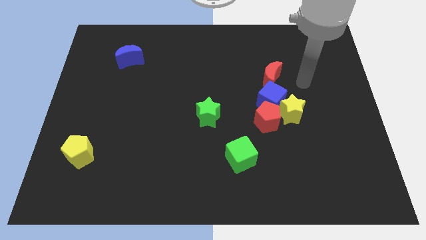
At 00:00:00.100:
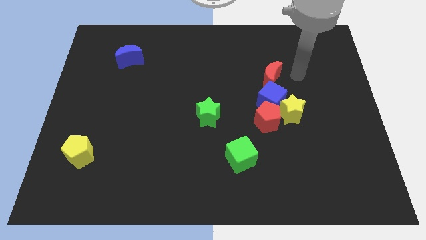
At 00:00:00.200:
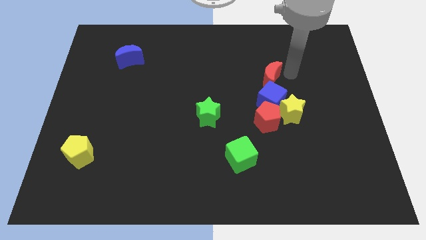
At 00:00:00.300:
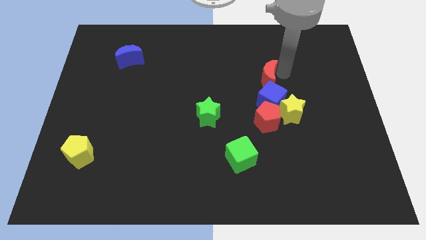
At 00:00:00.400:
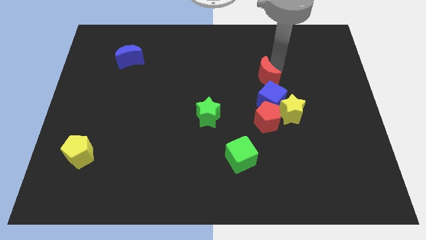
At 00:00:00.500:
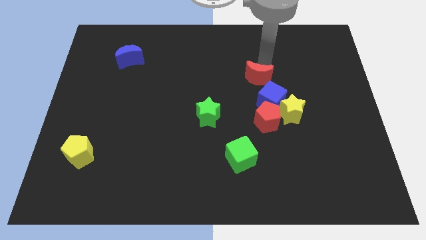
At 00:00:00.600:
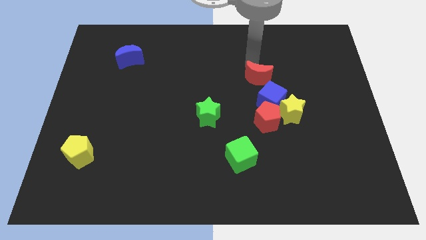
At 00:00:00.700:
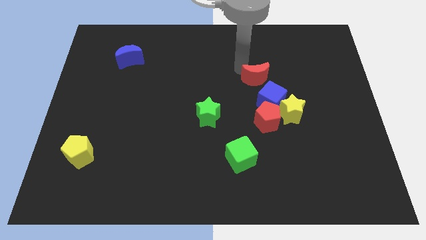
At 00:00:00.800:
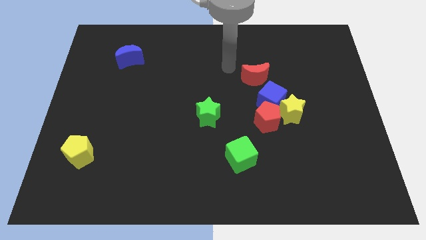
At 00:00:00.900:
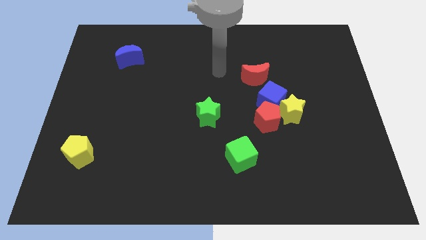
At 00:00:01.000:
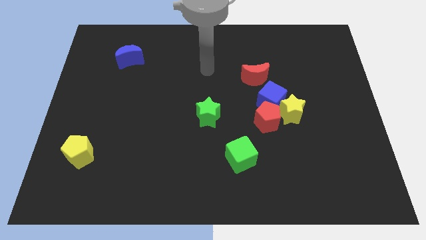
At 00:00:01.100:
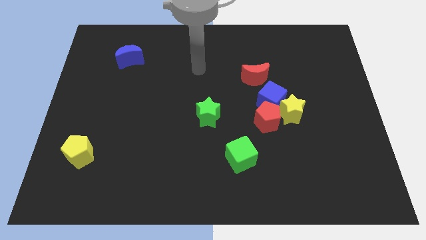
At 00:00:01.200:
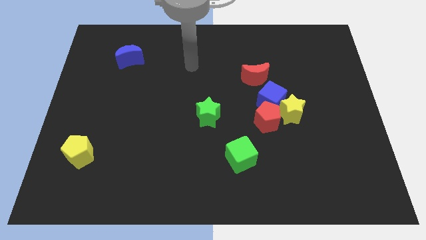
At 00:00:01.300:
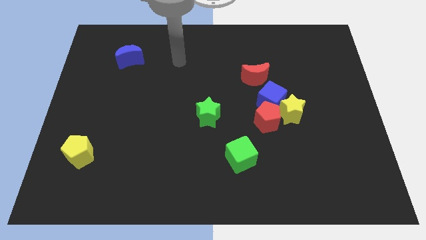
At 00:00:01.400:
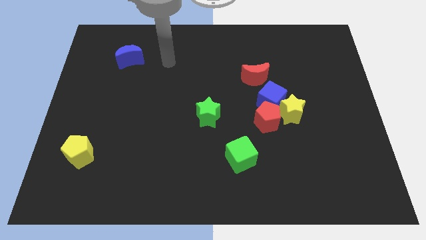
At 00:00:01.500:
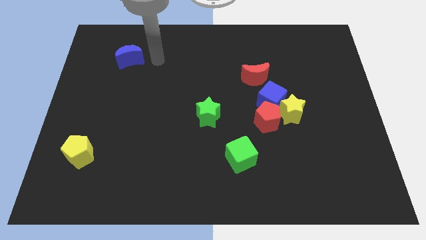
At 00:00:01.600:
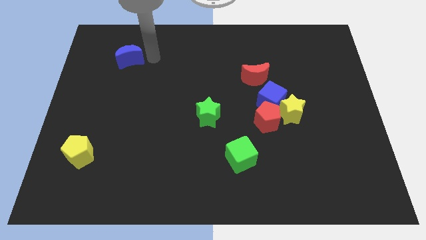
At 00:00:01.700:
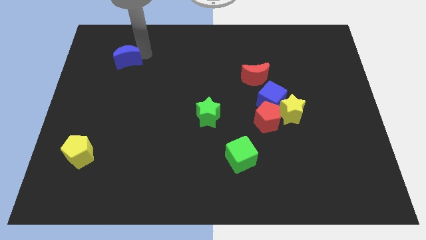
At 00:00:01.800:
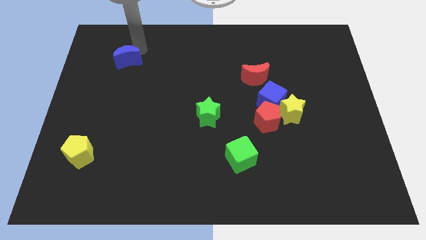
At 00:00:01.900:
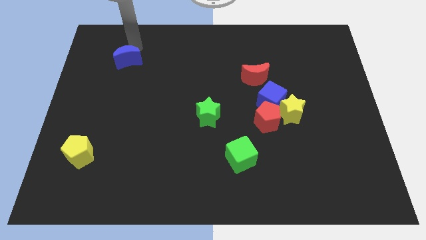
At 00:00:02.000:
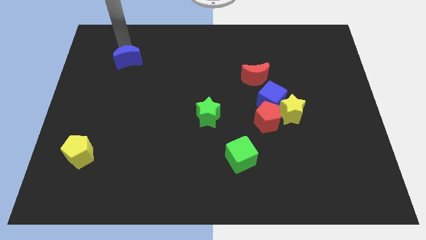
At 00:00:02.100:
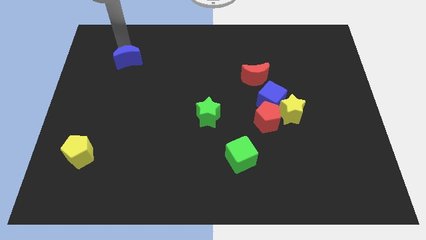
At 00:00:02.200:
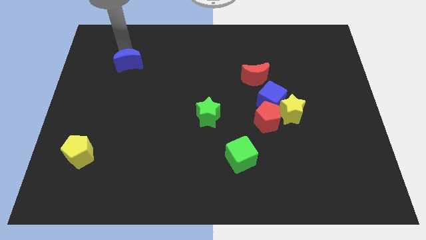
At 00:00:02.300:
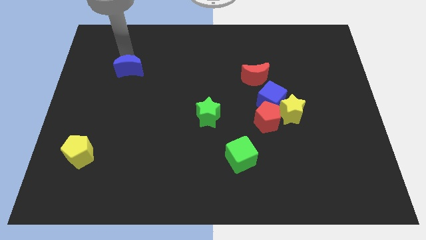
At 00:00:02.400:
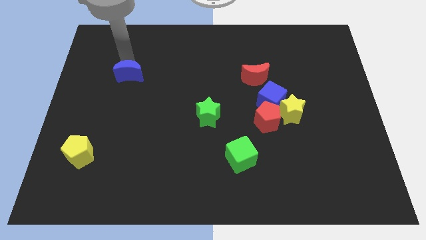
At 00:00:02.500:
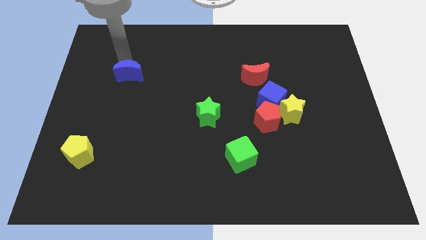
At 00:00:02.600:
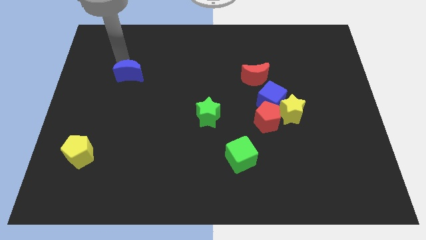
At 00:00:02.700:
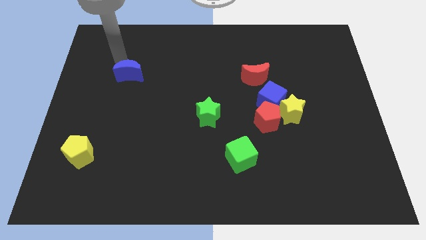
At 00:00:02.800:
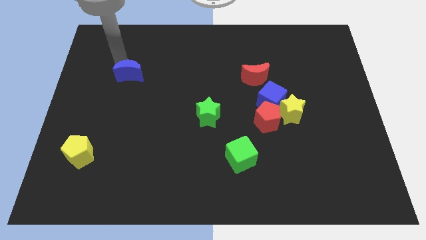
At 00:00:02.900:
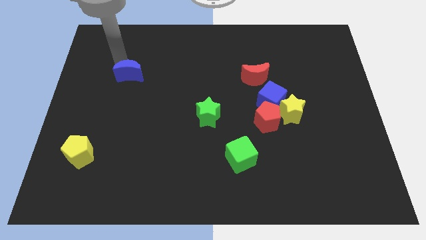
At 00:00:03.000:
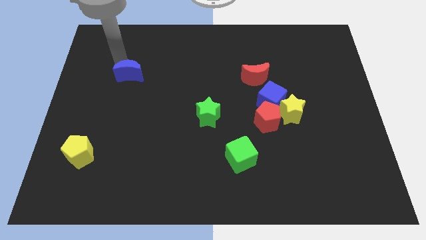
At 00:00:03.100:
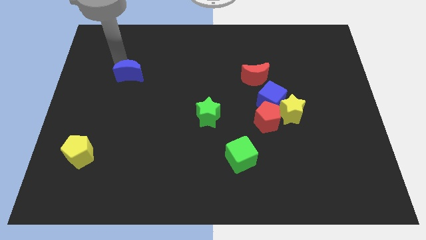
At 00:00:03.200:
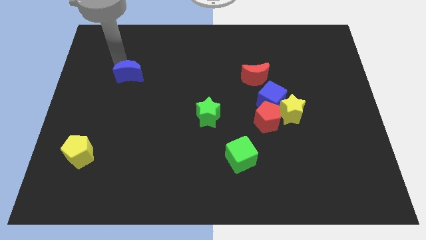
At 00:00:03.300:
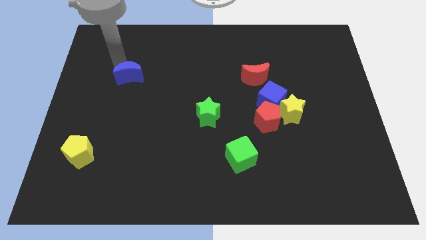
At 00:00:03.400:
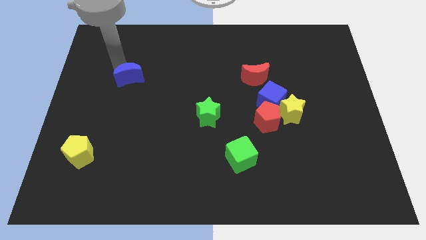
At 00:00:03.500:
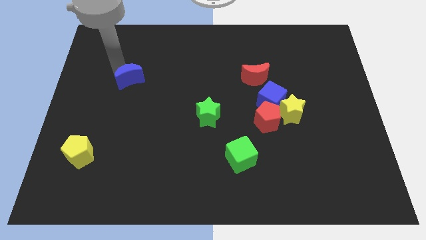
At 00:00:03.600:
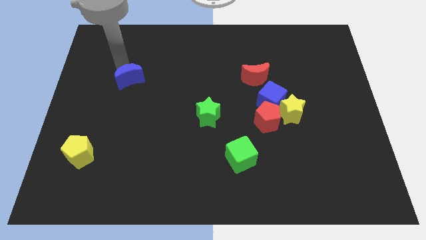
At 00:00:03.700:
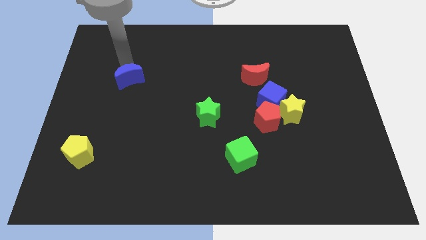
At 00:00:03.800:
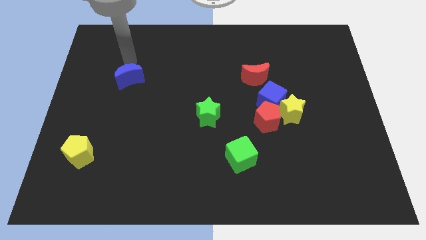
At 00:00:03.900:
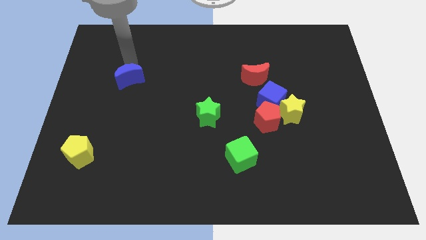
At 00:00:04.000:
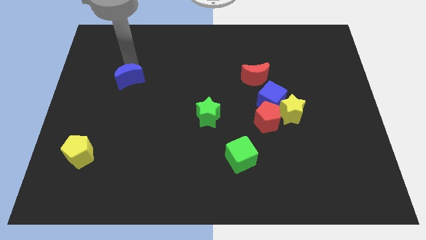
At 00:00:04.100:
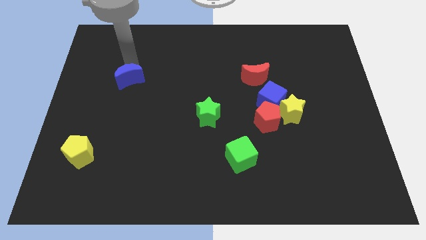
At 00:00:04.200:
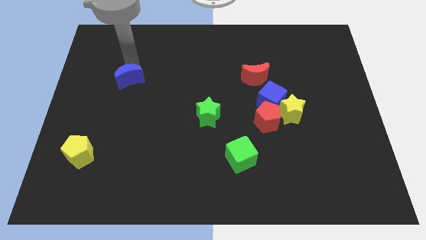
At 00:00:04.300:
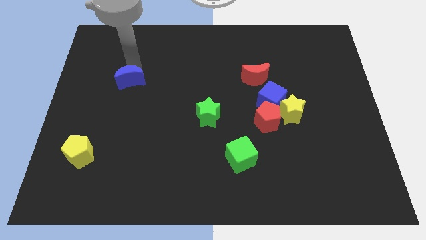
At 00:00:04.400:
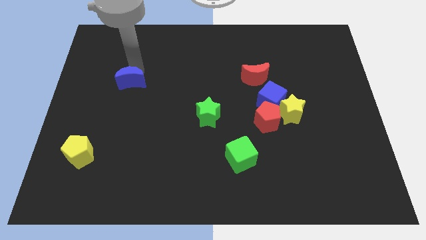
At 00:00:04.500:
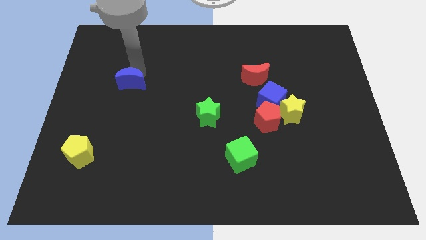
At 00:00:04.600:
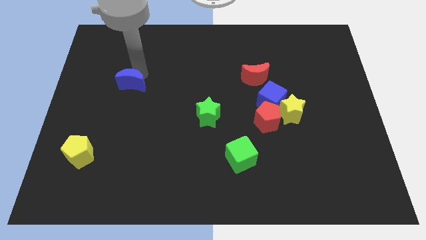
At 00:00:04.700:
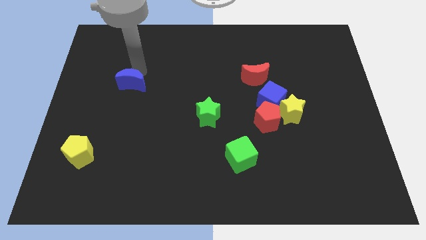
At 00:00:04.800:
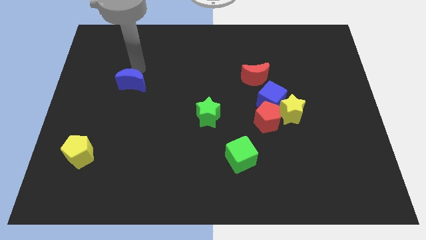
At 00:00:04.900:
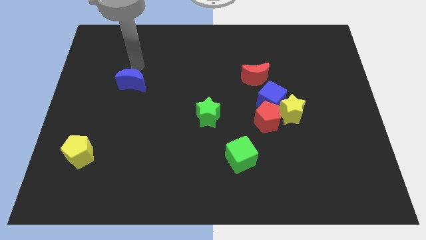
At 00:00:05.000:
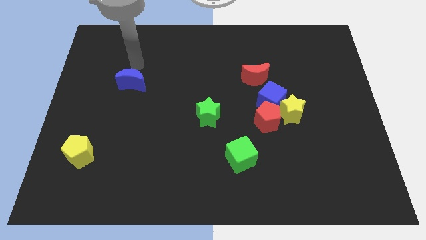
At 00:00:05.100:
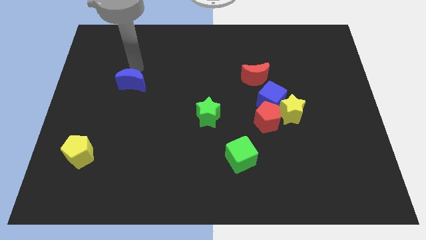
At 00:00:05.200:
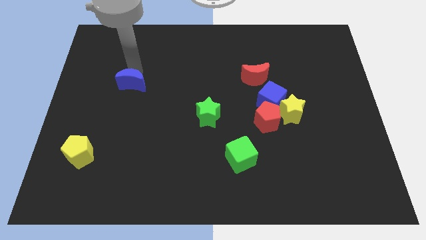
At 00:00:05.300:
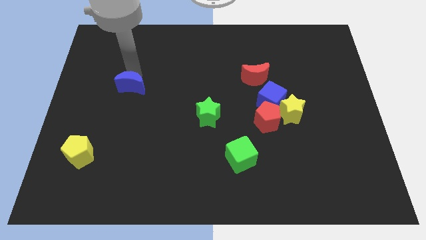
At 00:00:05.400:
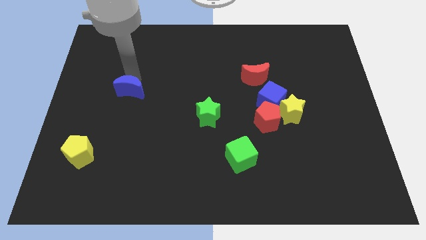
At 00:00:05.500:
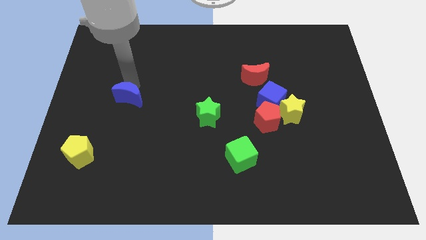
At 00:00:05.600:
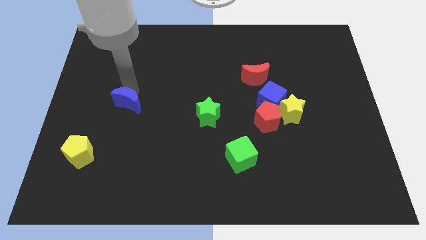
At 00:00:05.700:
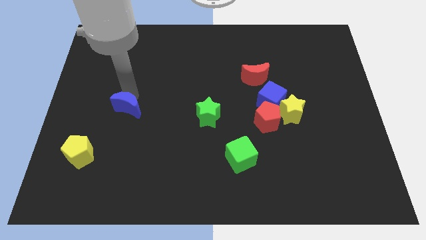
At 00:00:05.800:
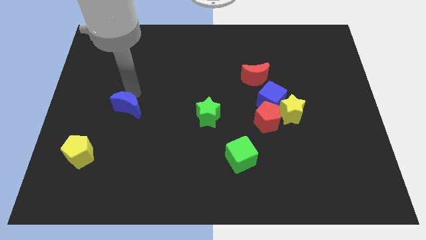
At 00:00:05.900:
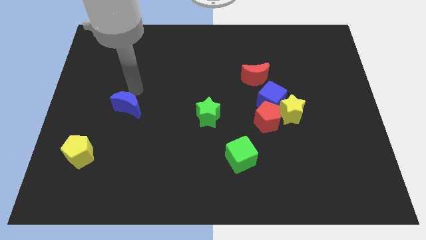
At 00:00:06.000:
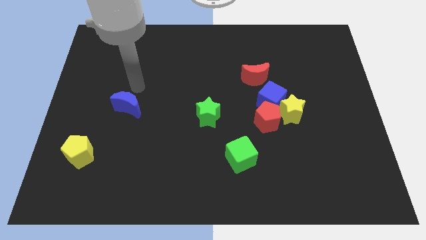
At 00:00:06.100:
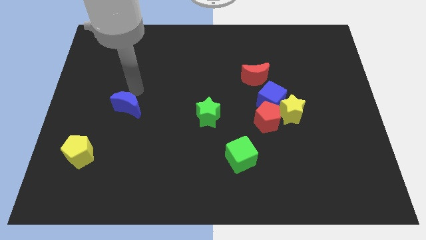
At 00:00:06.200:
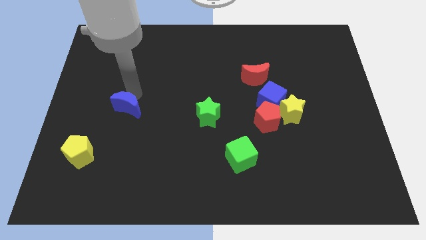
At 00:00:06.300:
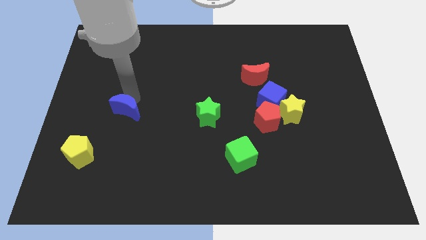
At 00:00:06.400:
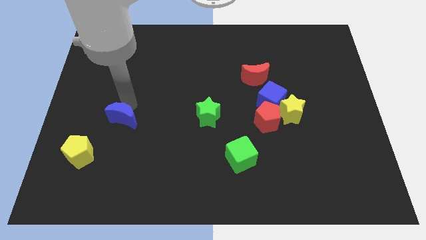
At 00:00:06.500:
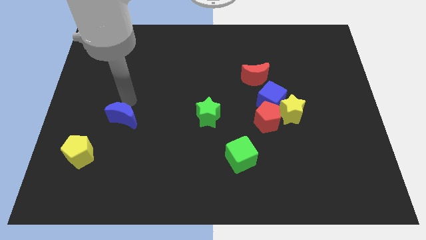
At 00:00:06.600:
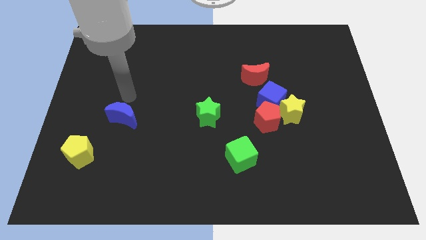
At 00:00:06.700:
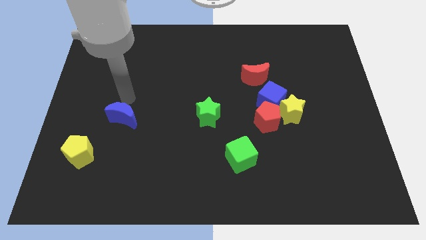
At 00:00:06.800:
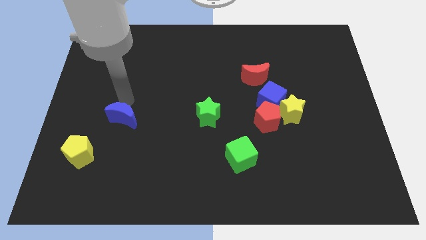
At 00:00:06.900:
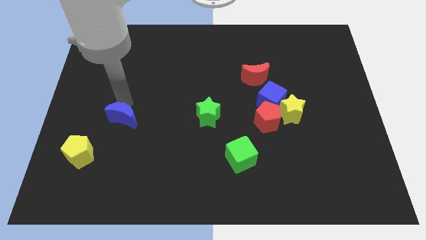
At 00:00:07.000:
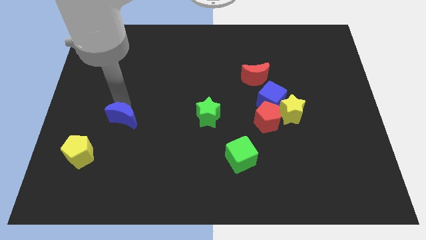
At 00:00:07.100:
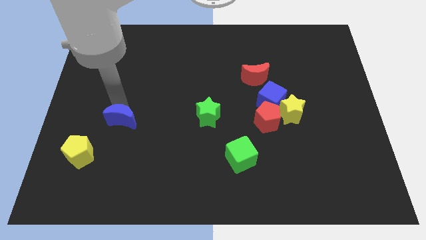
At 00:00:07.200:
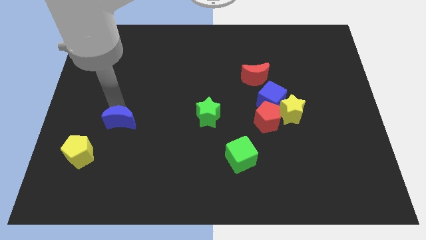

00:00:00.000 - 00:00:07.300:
slide the blue moon down

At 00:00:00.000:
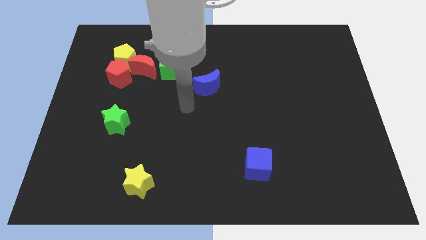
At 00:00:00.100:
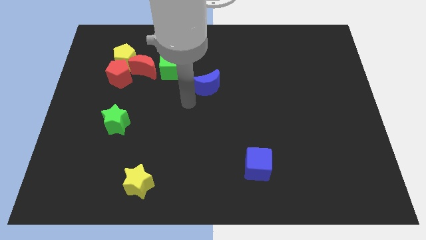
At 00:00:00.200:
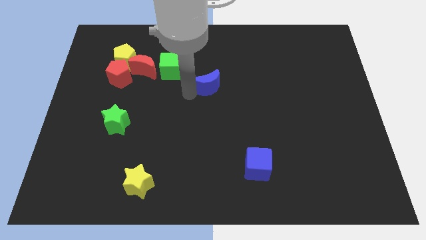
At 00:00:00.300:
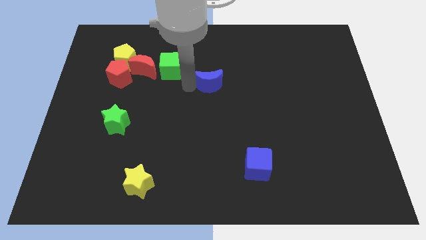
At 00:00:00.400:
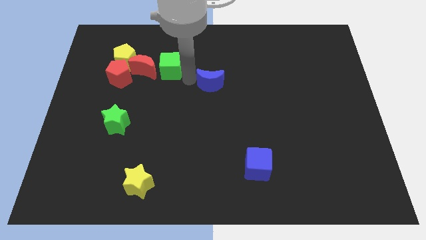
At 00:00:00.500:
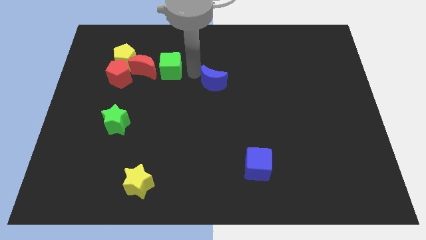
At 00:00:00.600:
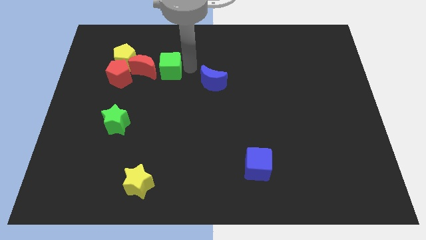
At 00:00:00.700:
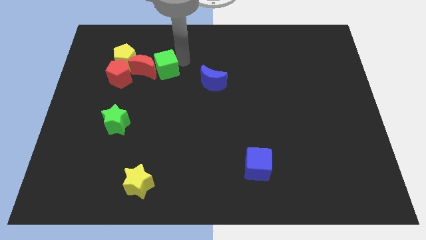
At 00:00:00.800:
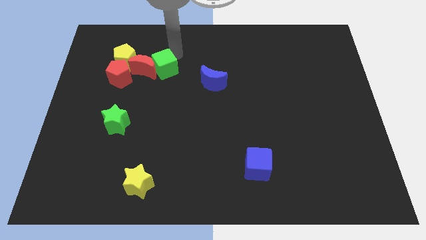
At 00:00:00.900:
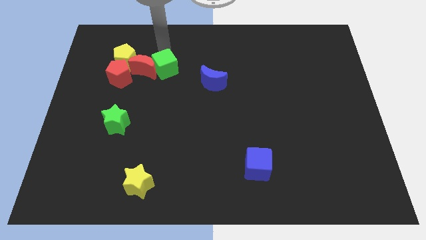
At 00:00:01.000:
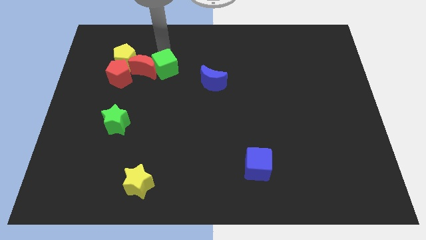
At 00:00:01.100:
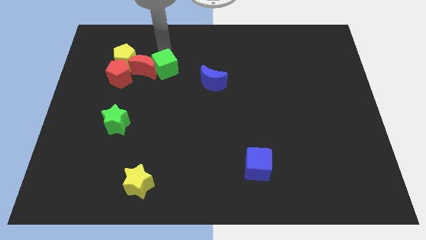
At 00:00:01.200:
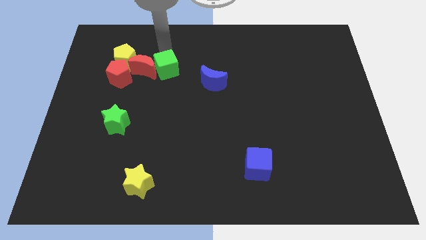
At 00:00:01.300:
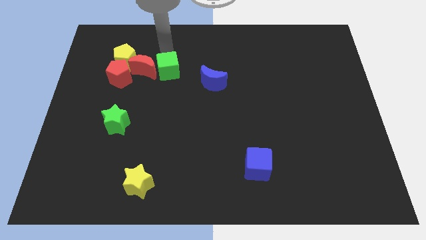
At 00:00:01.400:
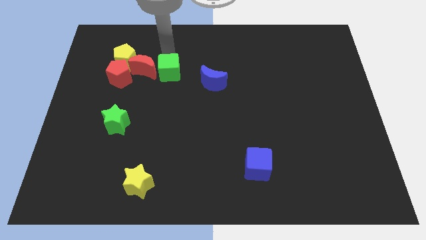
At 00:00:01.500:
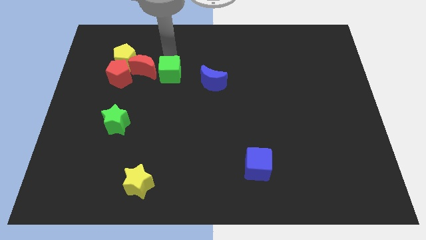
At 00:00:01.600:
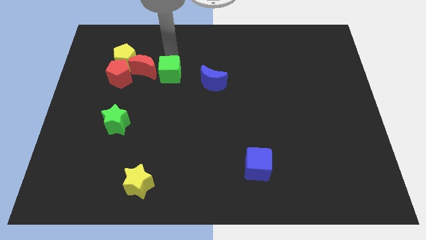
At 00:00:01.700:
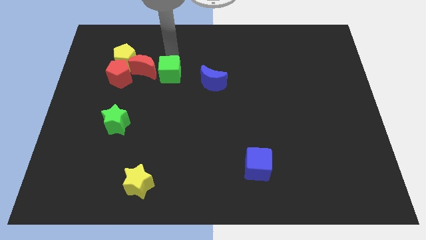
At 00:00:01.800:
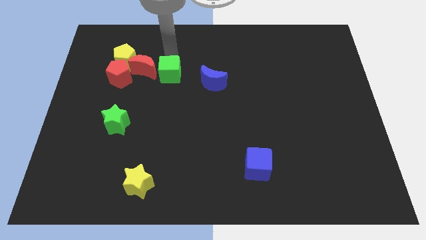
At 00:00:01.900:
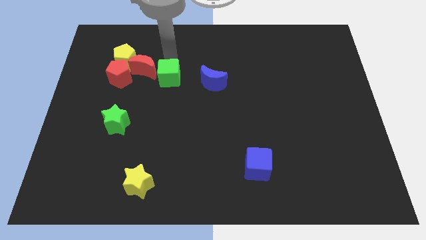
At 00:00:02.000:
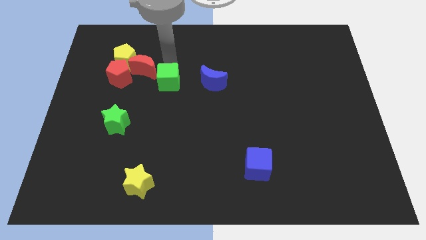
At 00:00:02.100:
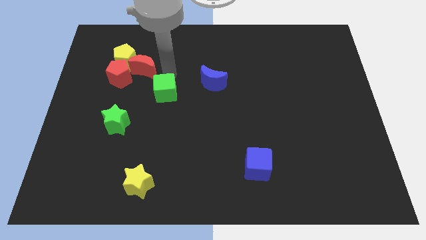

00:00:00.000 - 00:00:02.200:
slightly move the green cube down
